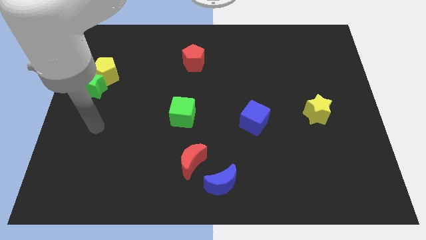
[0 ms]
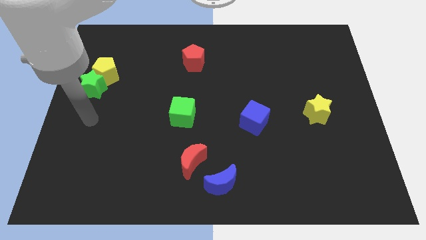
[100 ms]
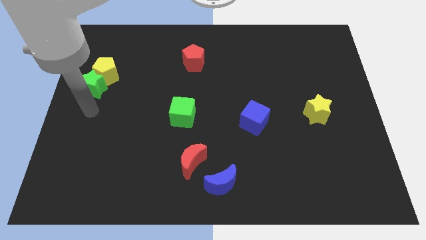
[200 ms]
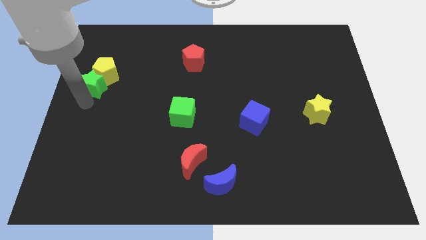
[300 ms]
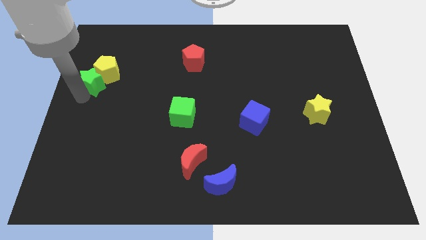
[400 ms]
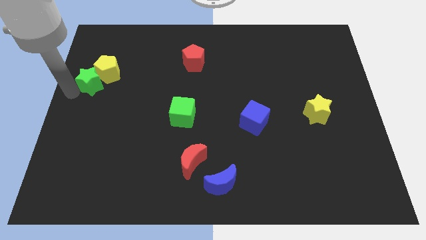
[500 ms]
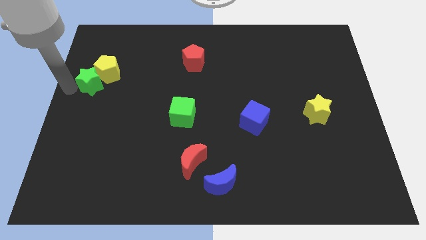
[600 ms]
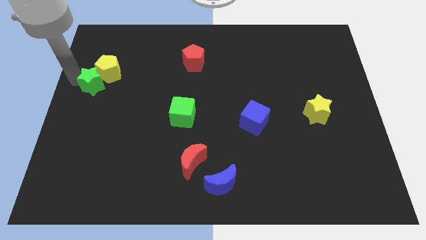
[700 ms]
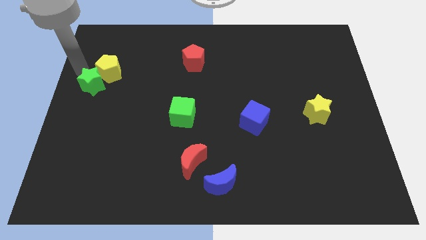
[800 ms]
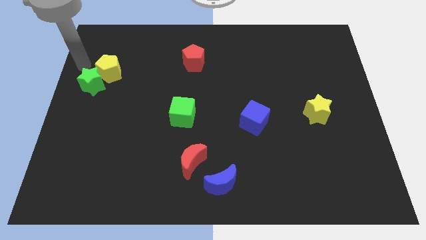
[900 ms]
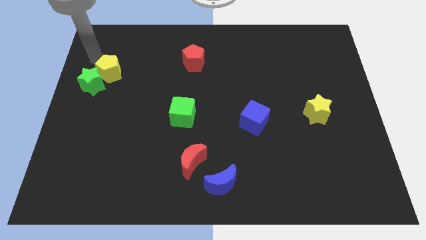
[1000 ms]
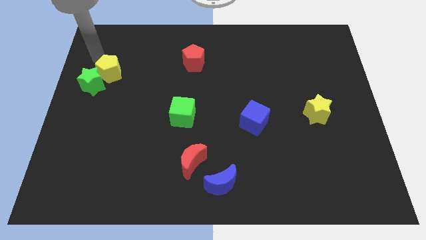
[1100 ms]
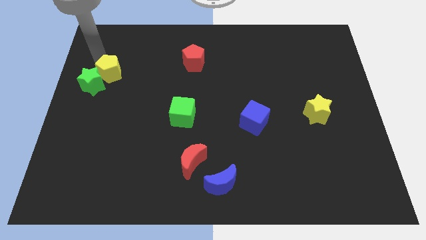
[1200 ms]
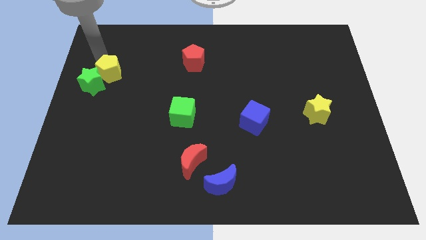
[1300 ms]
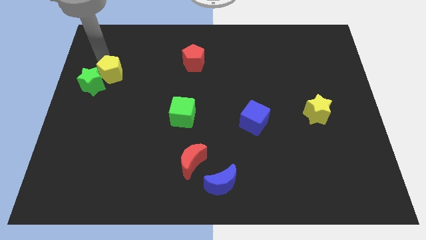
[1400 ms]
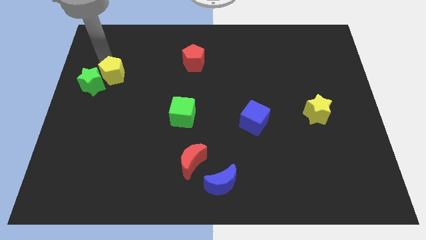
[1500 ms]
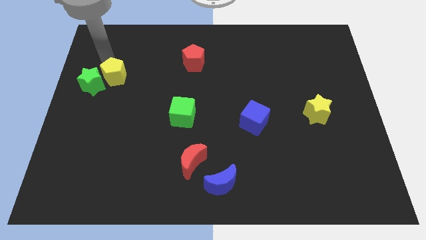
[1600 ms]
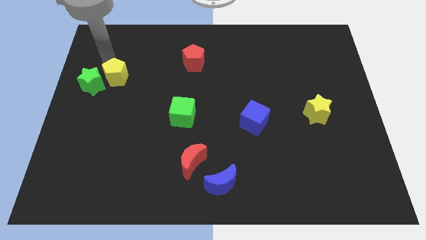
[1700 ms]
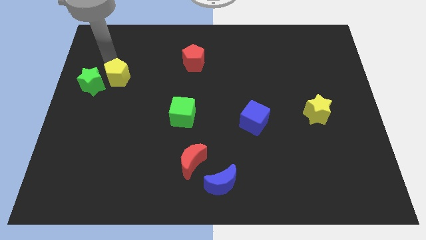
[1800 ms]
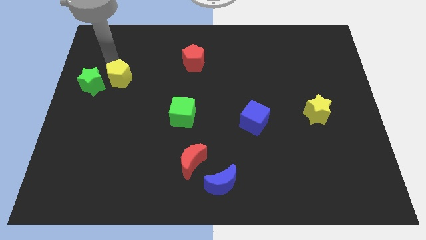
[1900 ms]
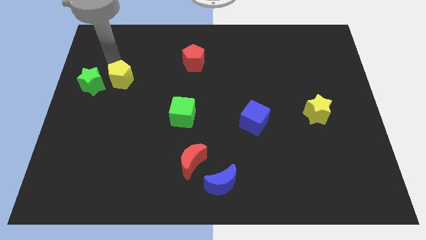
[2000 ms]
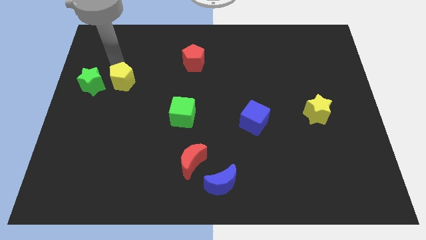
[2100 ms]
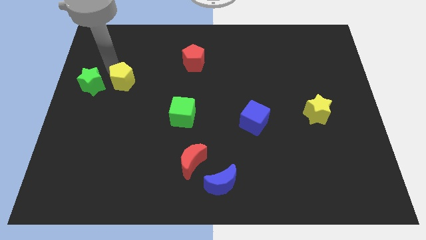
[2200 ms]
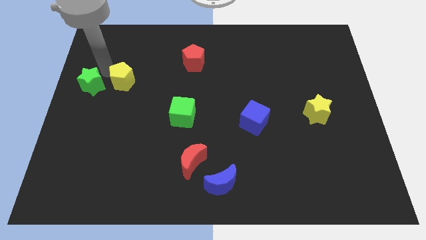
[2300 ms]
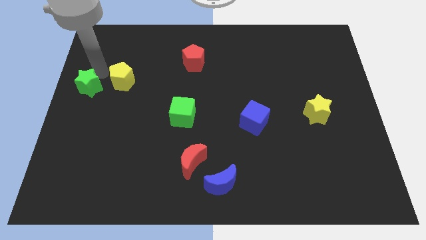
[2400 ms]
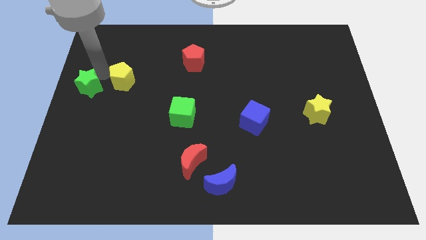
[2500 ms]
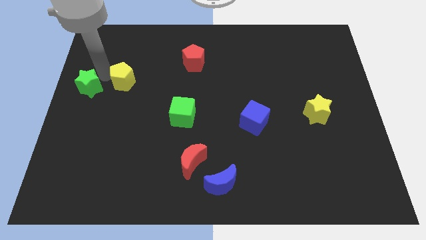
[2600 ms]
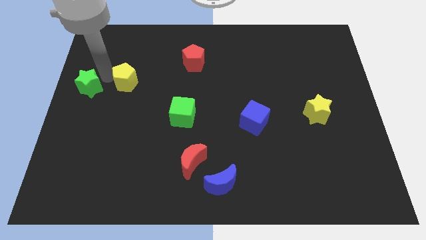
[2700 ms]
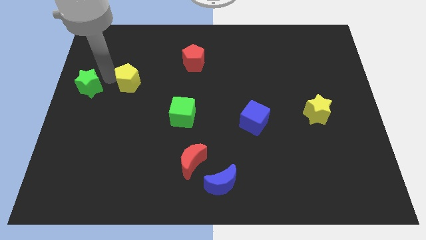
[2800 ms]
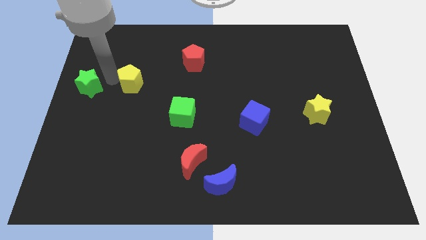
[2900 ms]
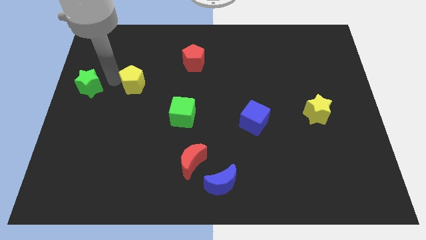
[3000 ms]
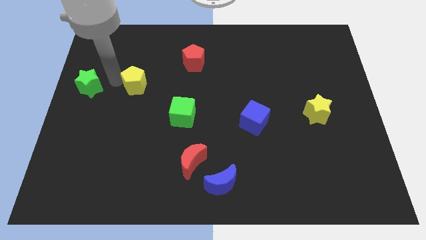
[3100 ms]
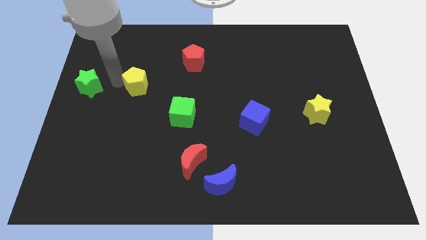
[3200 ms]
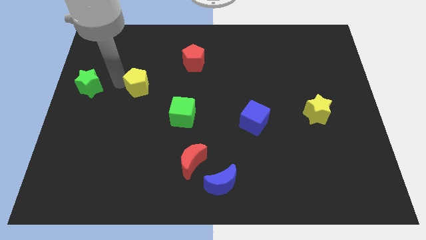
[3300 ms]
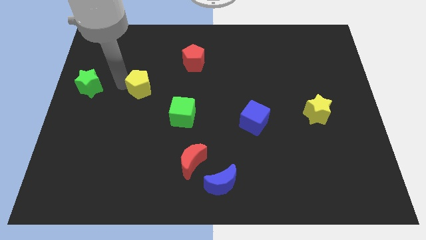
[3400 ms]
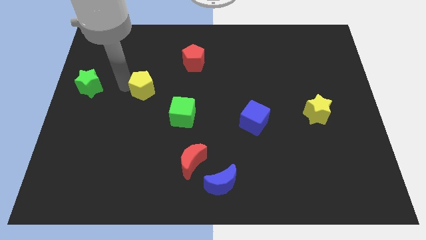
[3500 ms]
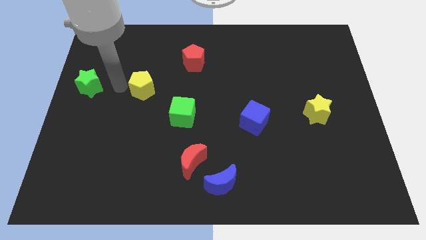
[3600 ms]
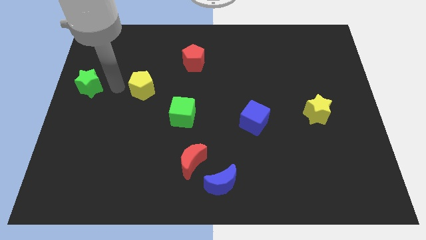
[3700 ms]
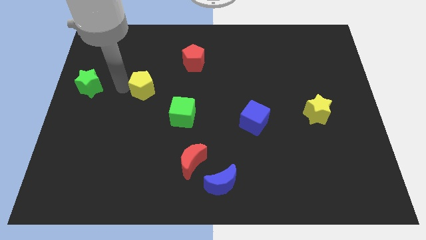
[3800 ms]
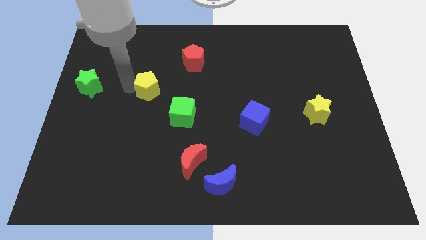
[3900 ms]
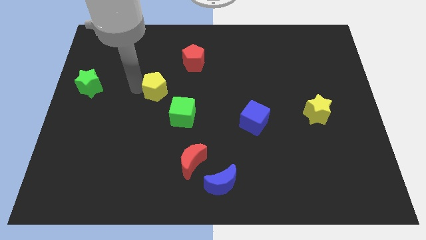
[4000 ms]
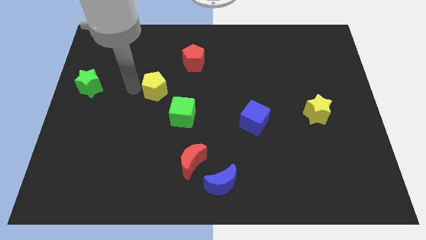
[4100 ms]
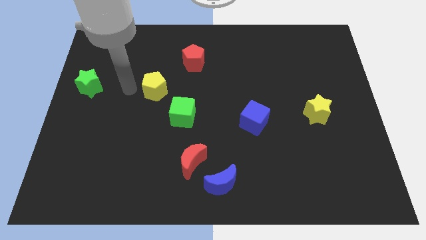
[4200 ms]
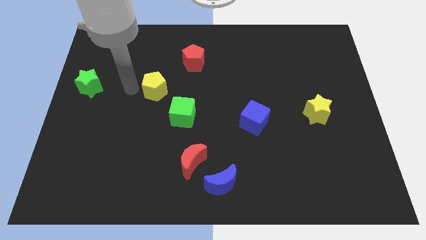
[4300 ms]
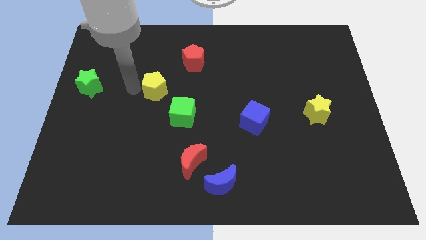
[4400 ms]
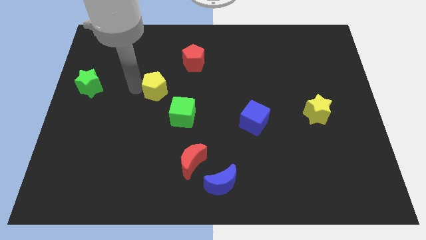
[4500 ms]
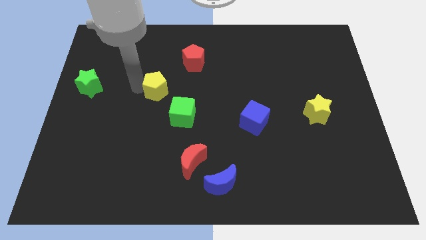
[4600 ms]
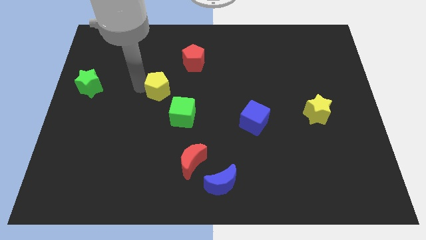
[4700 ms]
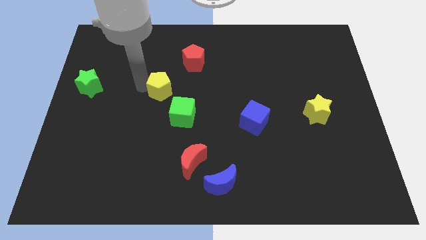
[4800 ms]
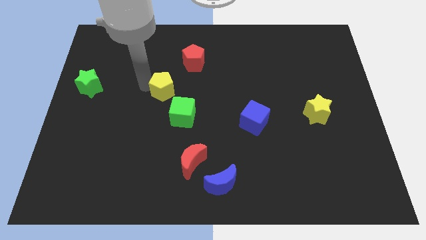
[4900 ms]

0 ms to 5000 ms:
move the yellow pentagon to the center of the board

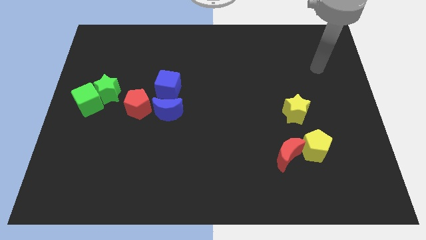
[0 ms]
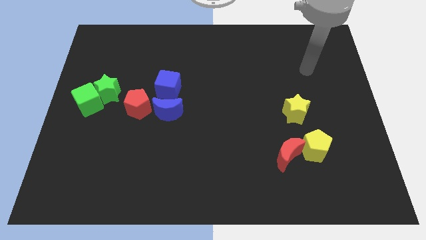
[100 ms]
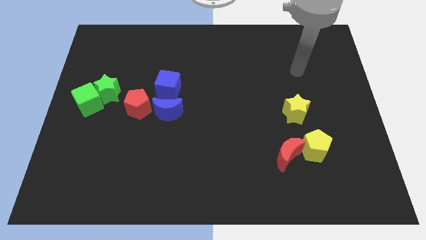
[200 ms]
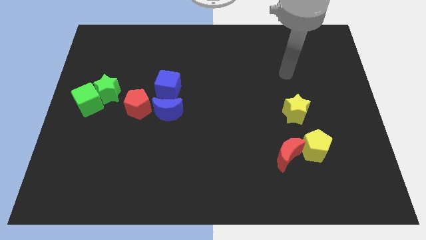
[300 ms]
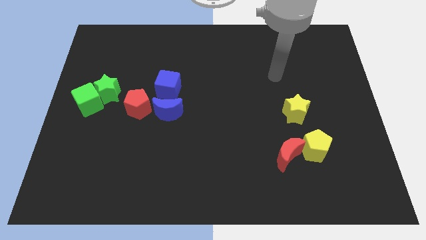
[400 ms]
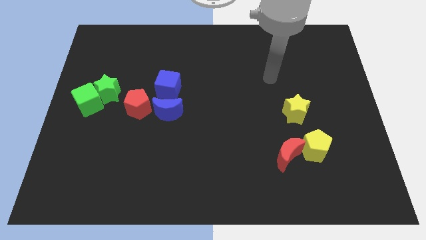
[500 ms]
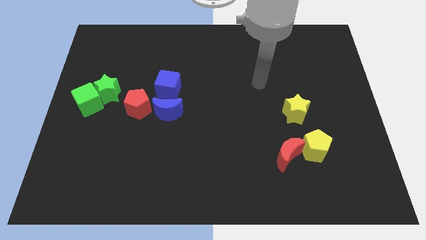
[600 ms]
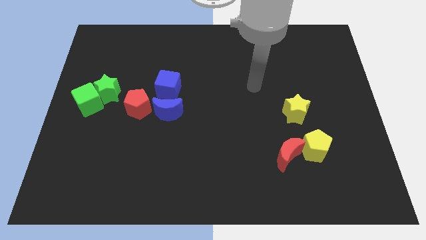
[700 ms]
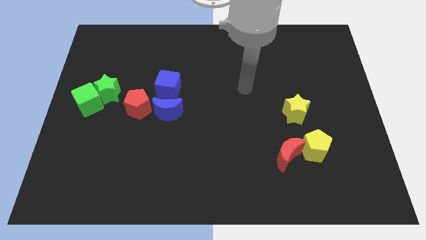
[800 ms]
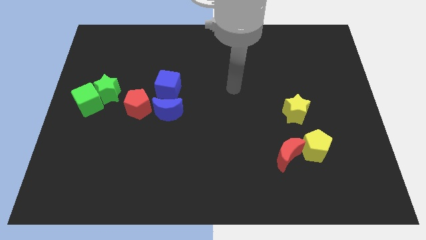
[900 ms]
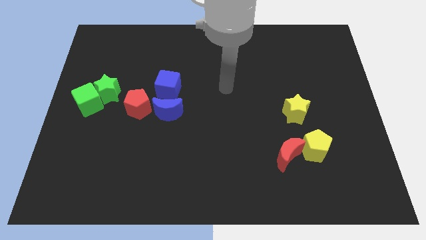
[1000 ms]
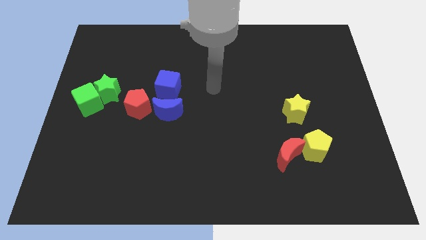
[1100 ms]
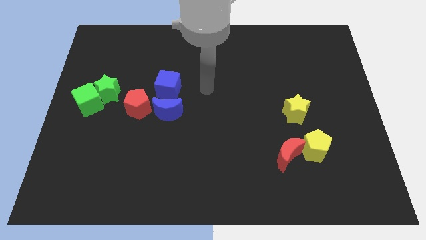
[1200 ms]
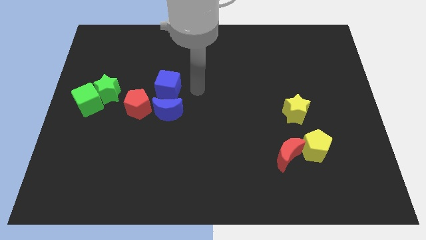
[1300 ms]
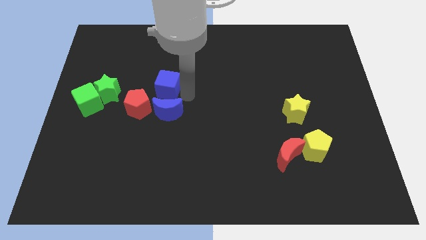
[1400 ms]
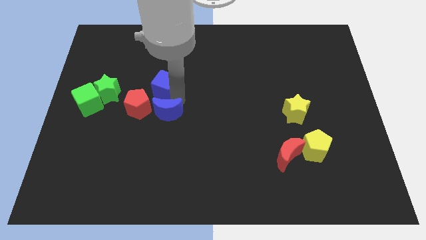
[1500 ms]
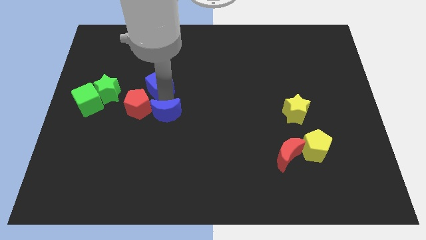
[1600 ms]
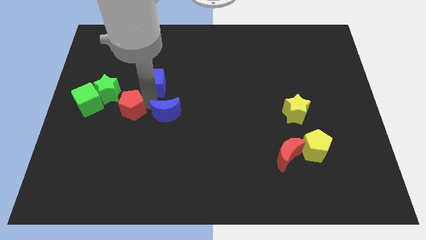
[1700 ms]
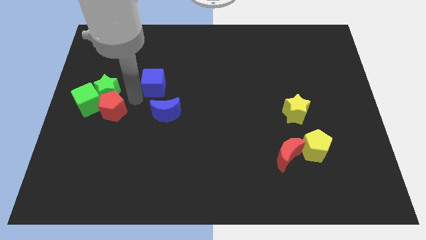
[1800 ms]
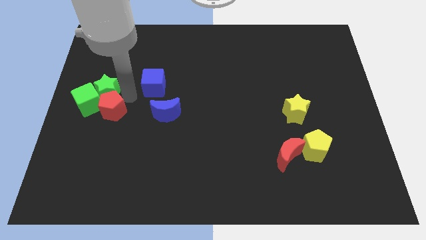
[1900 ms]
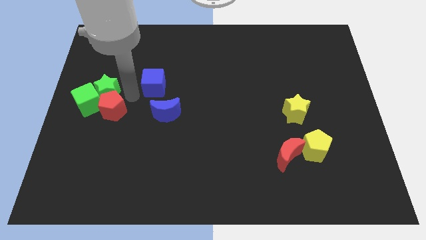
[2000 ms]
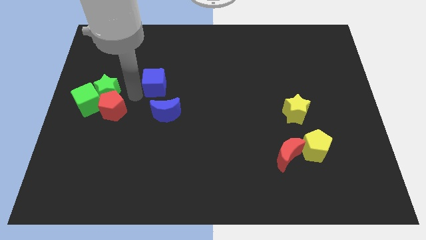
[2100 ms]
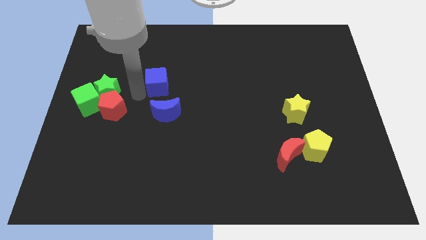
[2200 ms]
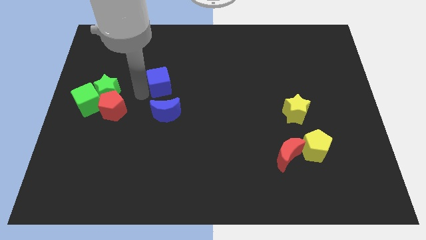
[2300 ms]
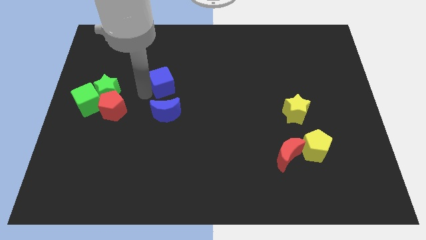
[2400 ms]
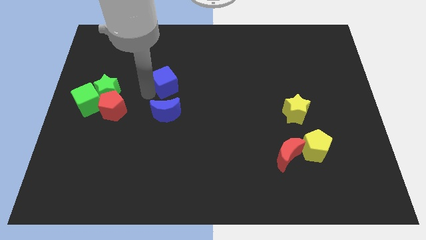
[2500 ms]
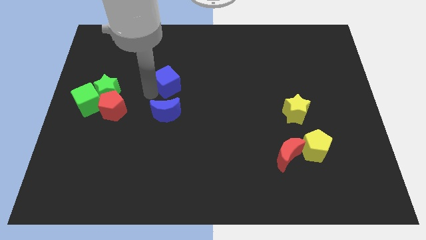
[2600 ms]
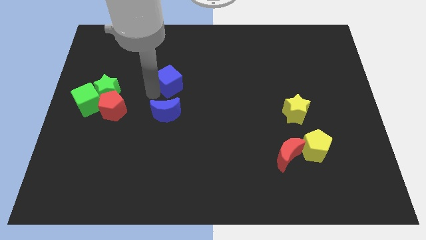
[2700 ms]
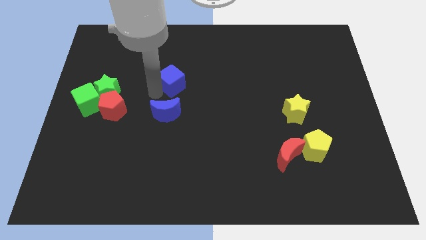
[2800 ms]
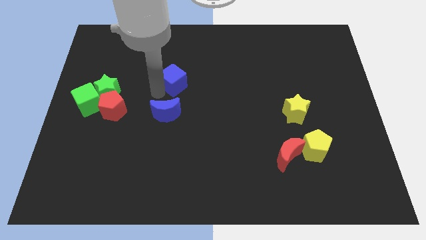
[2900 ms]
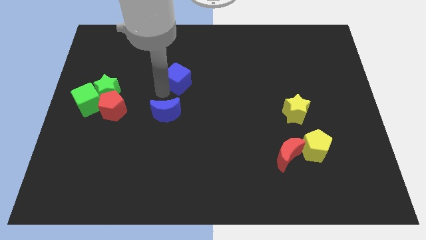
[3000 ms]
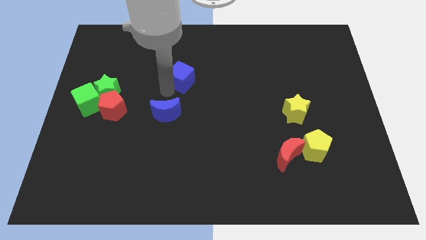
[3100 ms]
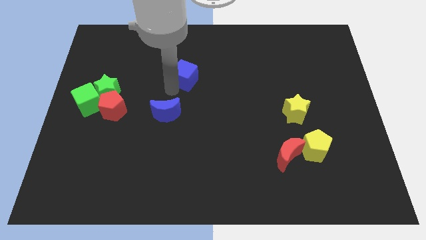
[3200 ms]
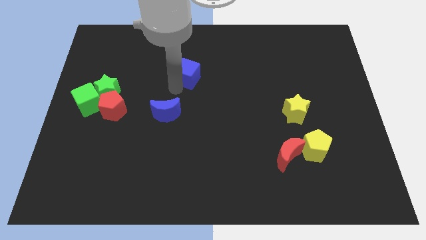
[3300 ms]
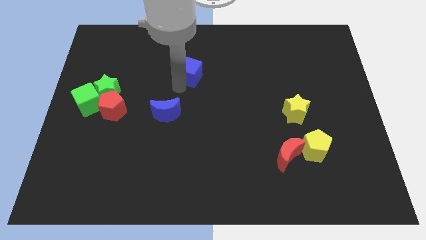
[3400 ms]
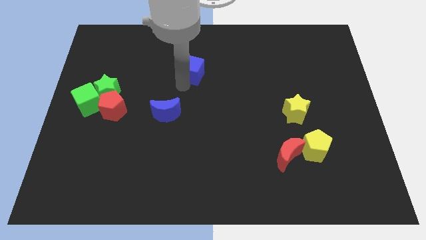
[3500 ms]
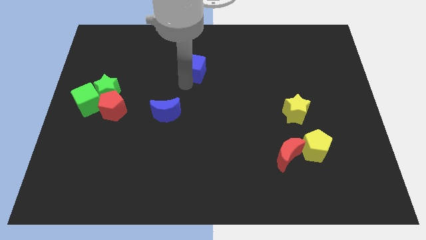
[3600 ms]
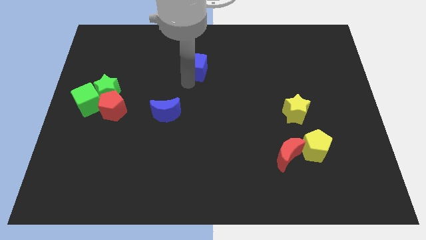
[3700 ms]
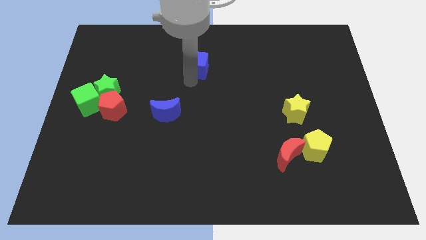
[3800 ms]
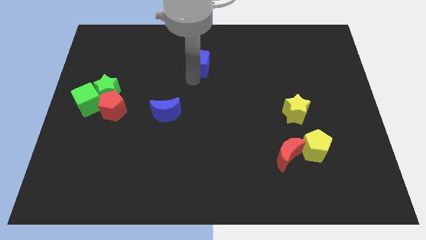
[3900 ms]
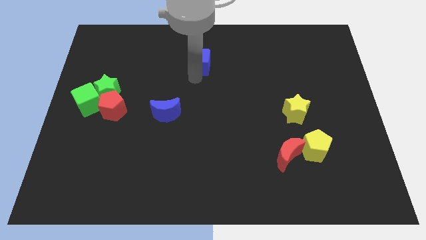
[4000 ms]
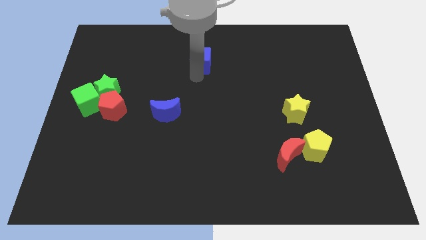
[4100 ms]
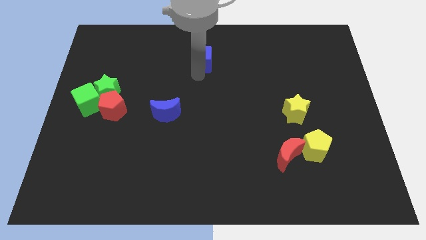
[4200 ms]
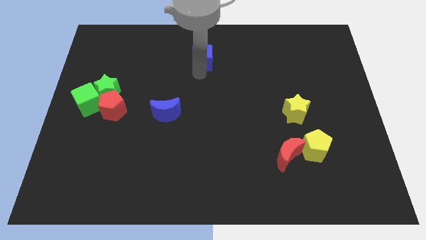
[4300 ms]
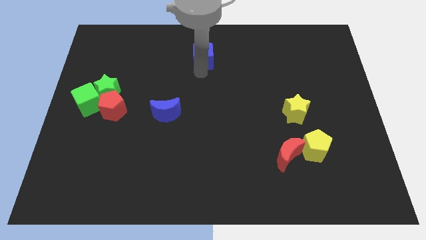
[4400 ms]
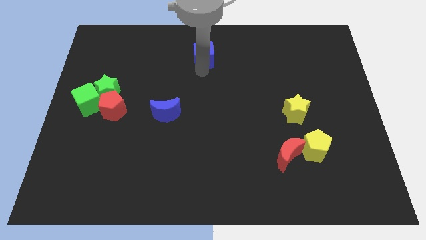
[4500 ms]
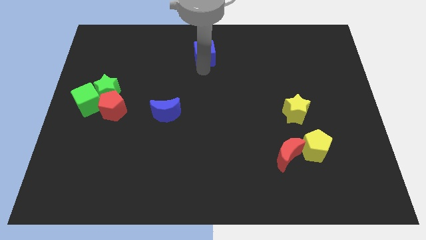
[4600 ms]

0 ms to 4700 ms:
slide the blue cube to the towards your base
